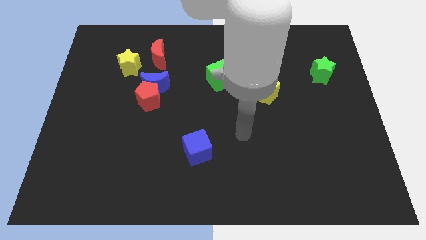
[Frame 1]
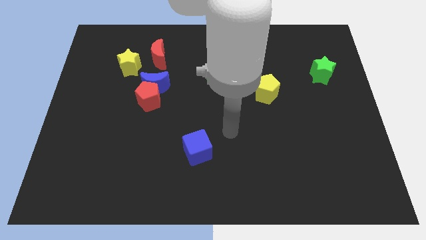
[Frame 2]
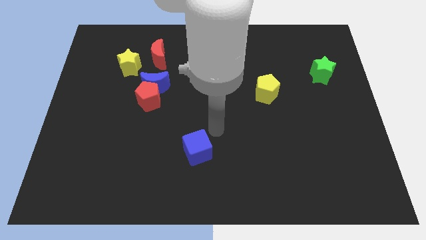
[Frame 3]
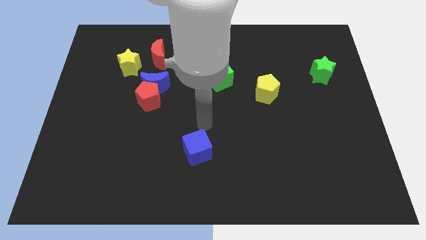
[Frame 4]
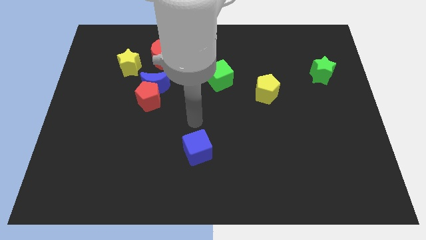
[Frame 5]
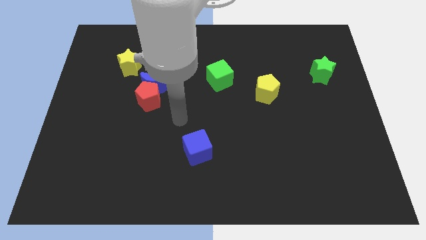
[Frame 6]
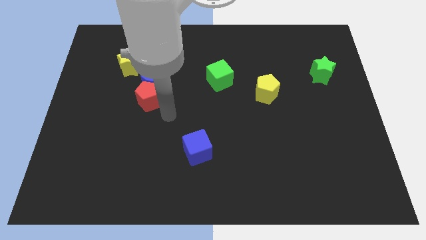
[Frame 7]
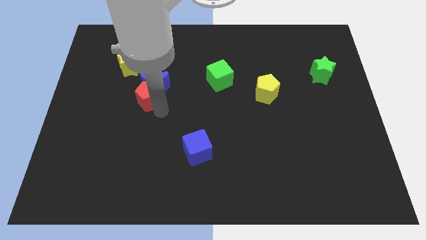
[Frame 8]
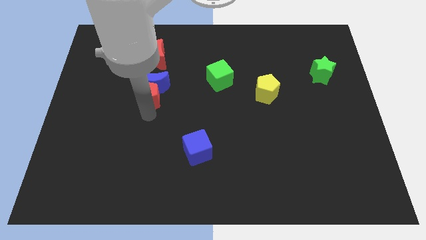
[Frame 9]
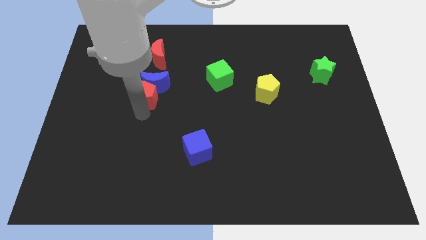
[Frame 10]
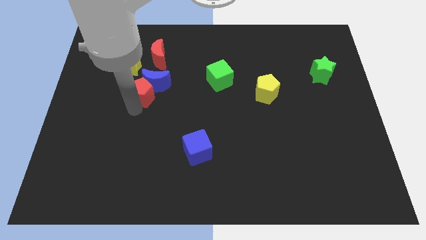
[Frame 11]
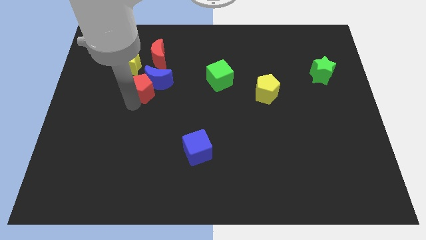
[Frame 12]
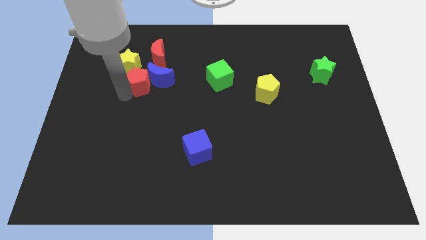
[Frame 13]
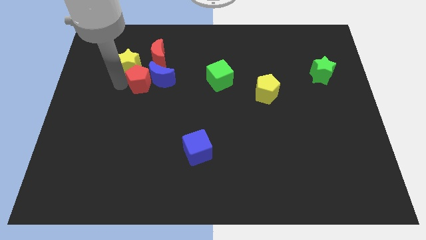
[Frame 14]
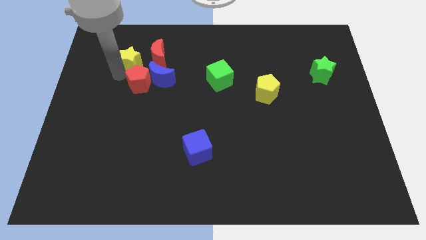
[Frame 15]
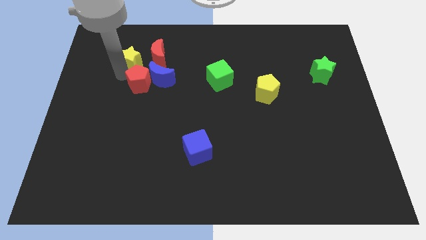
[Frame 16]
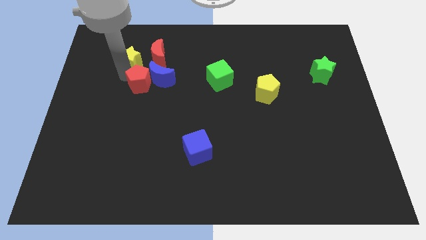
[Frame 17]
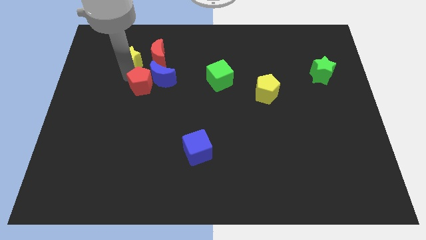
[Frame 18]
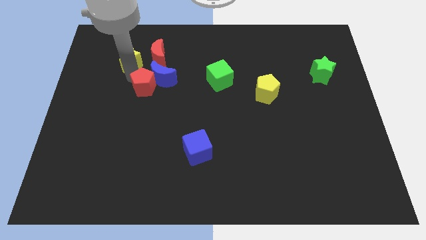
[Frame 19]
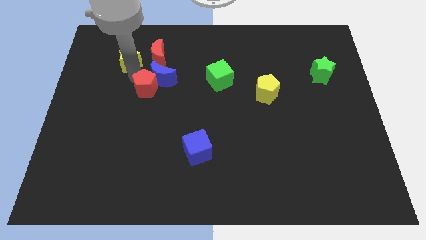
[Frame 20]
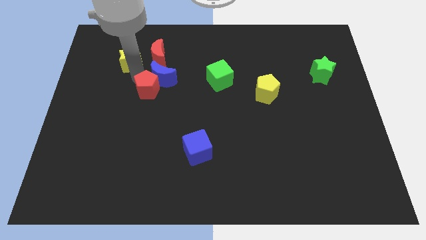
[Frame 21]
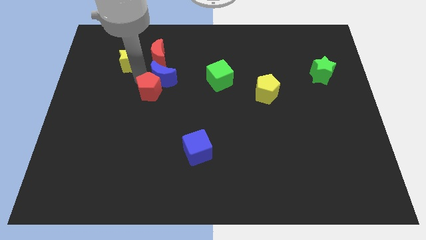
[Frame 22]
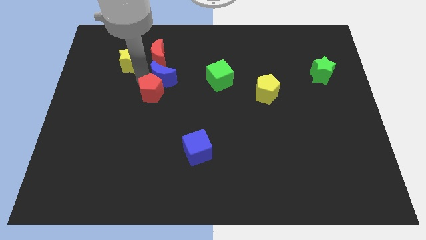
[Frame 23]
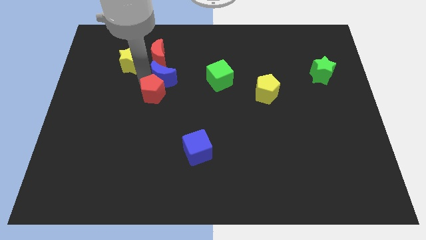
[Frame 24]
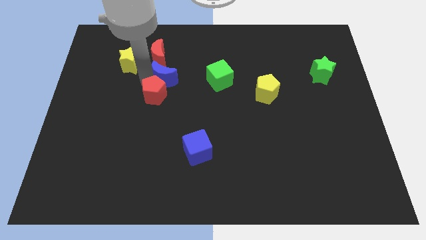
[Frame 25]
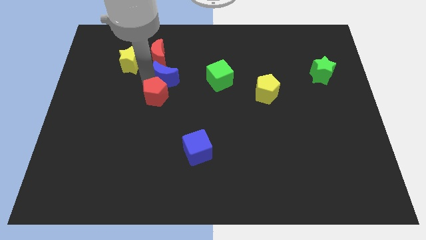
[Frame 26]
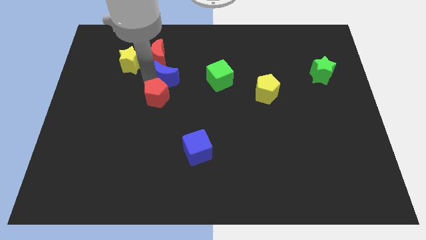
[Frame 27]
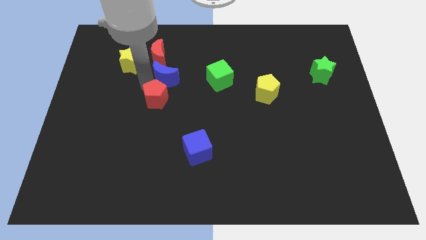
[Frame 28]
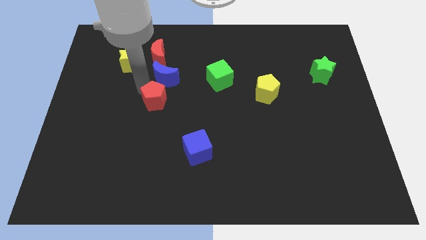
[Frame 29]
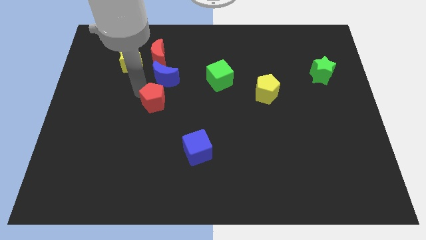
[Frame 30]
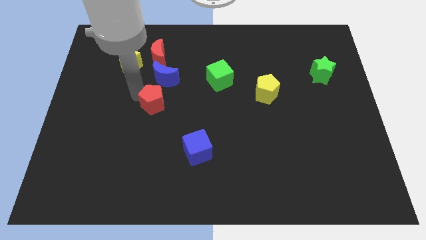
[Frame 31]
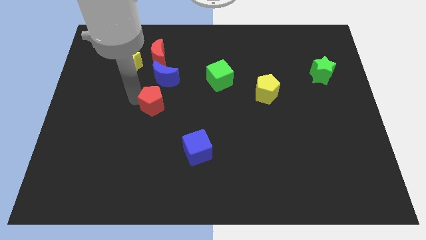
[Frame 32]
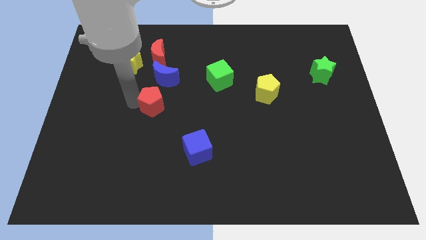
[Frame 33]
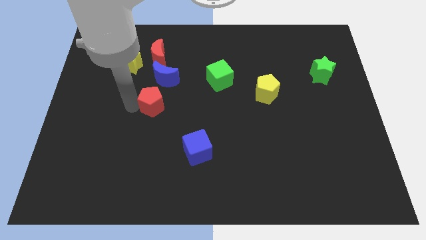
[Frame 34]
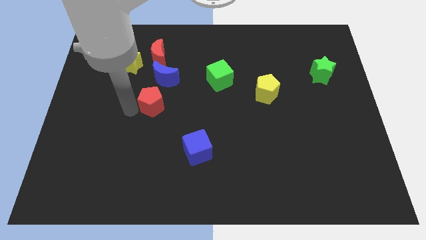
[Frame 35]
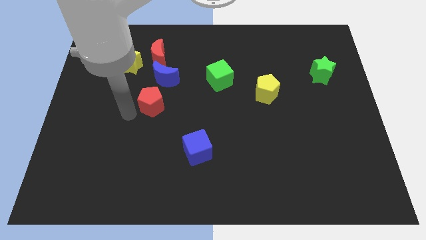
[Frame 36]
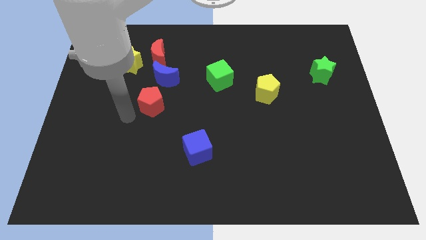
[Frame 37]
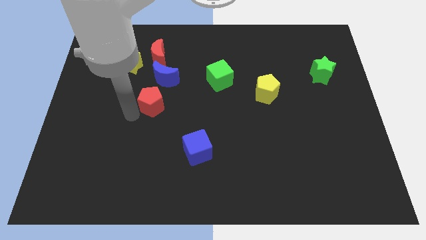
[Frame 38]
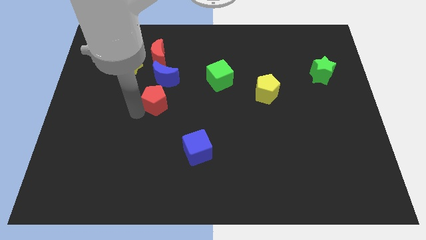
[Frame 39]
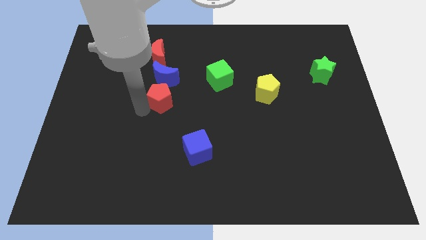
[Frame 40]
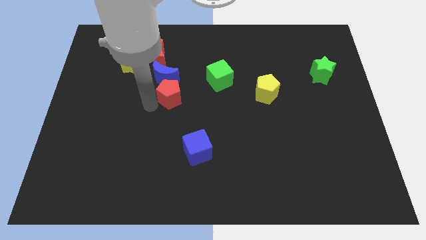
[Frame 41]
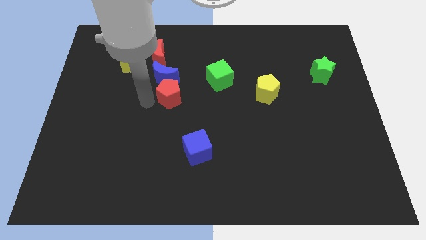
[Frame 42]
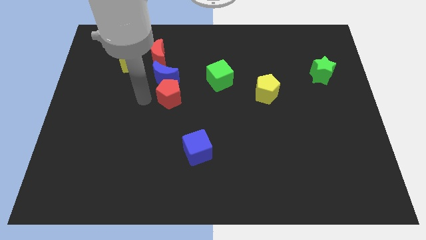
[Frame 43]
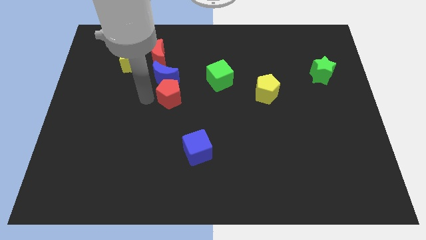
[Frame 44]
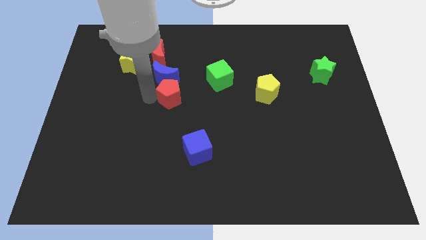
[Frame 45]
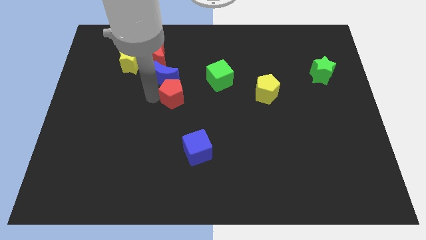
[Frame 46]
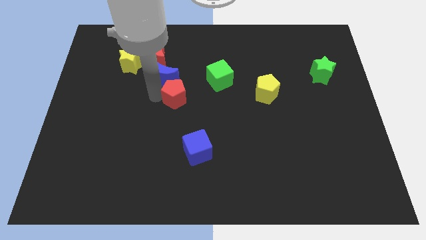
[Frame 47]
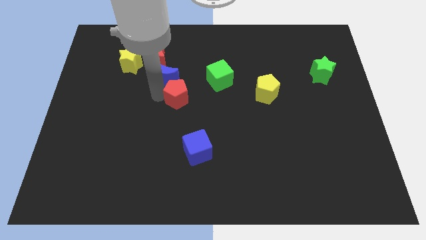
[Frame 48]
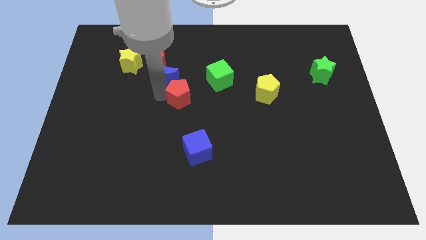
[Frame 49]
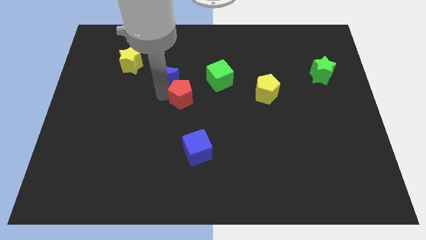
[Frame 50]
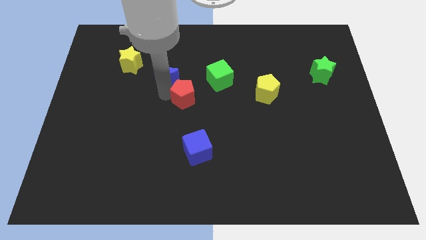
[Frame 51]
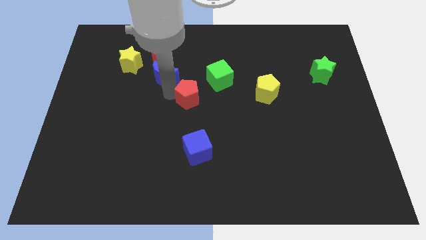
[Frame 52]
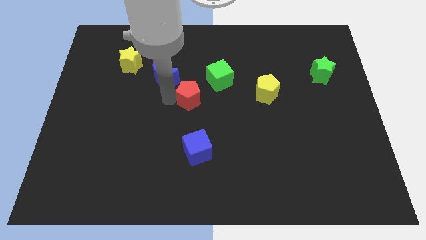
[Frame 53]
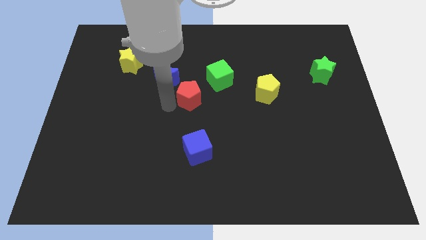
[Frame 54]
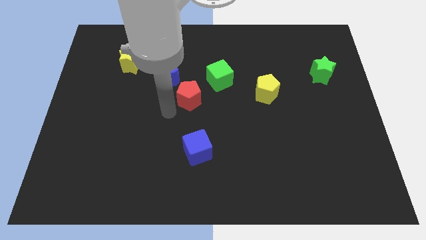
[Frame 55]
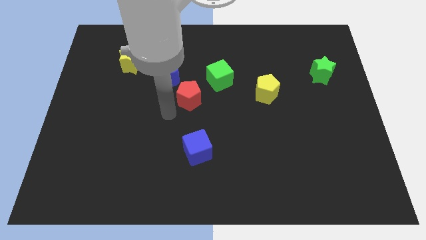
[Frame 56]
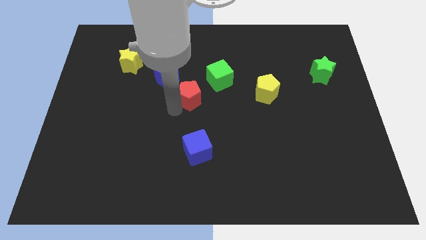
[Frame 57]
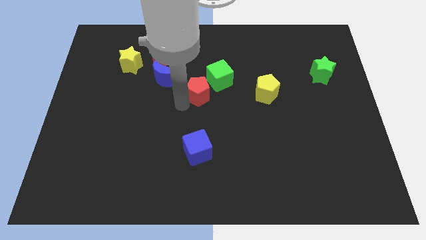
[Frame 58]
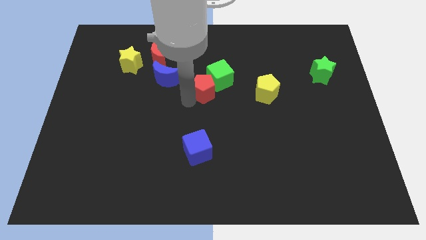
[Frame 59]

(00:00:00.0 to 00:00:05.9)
put the red pentagon next to the green cube

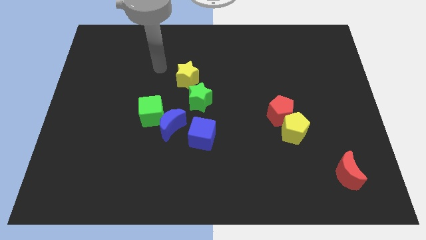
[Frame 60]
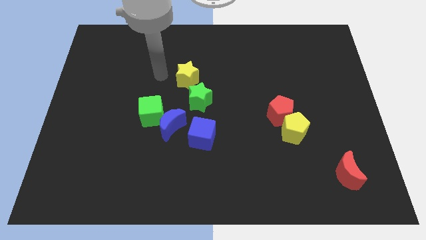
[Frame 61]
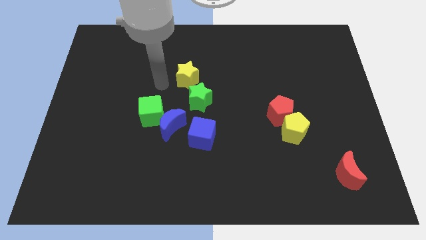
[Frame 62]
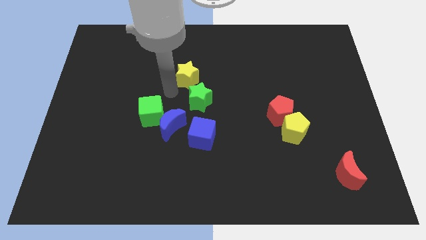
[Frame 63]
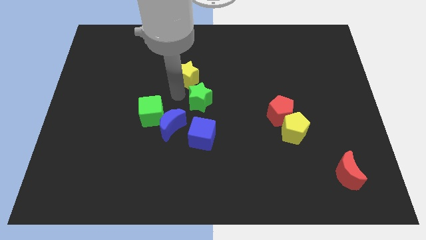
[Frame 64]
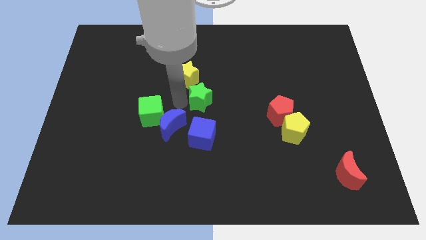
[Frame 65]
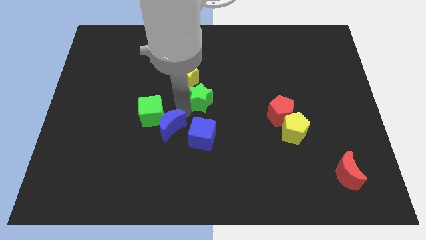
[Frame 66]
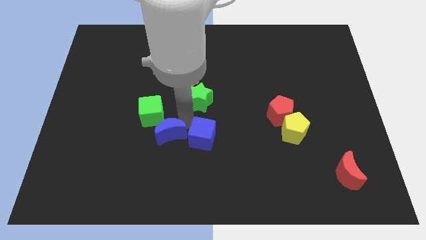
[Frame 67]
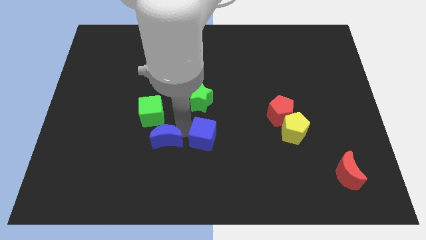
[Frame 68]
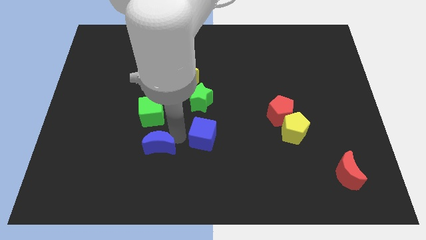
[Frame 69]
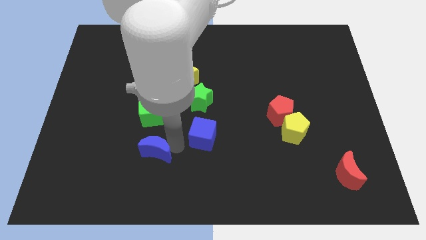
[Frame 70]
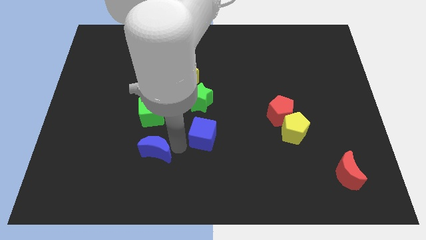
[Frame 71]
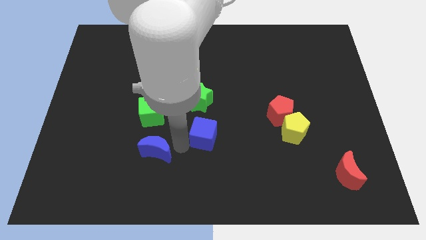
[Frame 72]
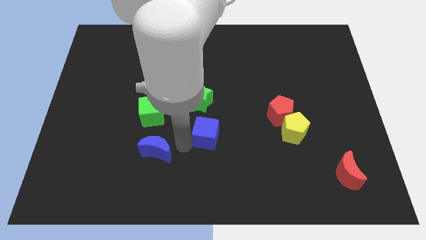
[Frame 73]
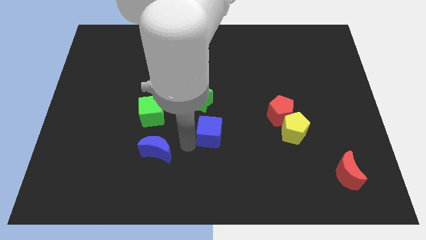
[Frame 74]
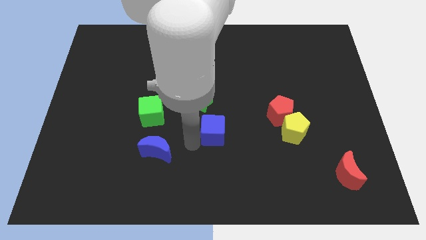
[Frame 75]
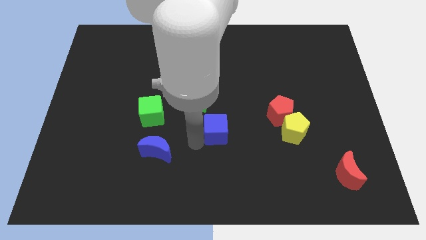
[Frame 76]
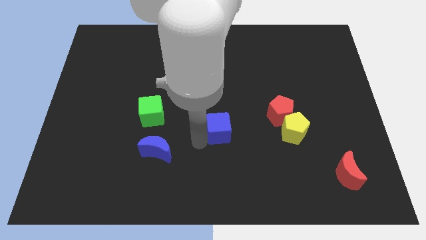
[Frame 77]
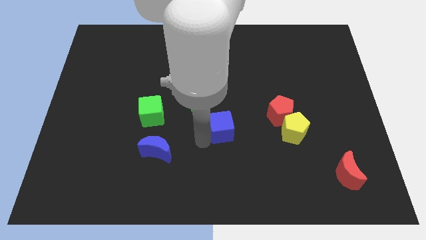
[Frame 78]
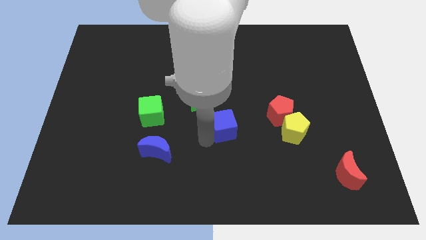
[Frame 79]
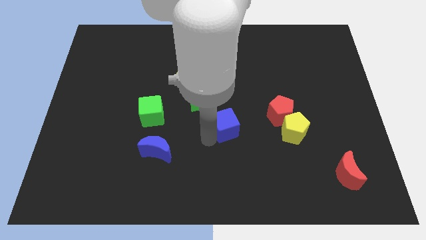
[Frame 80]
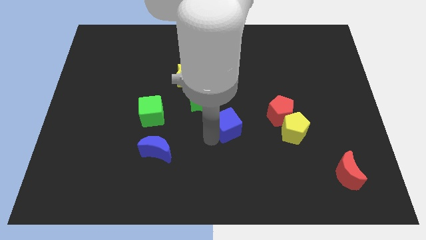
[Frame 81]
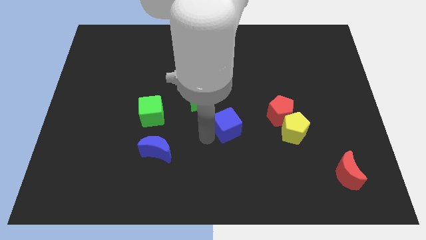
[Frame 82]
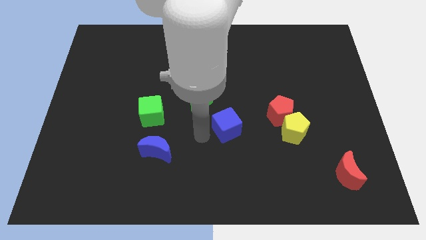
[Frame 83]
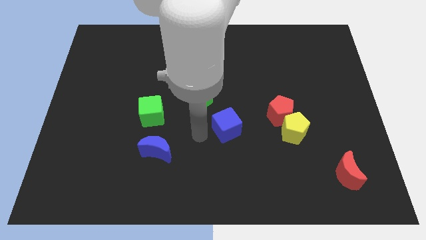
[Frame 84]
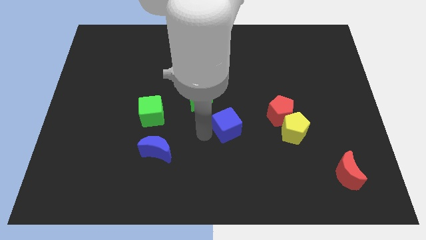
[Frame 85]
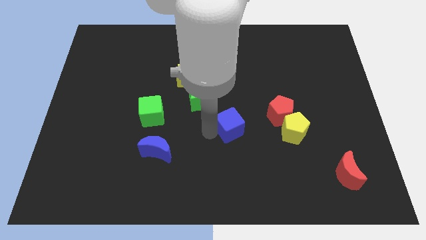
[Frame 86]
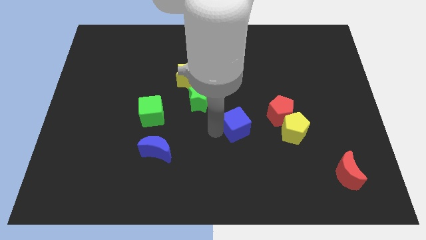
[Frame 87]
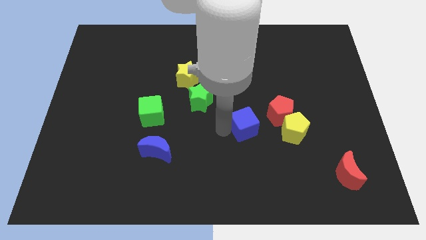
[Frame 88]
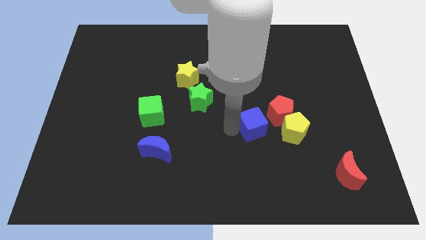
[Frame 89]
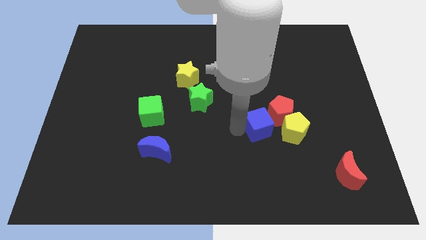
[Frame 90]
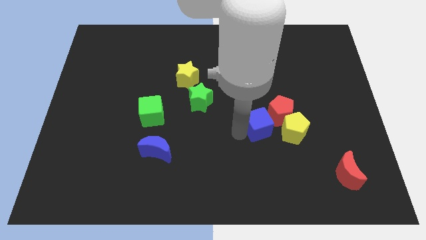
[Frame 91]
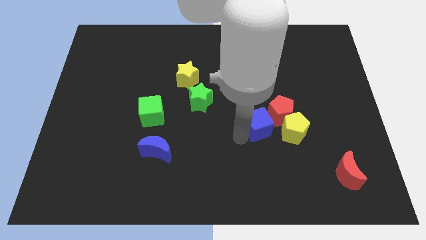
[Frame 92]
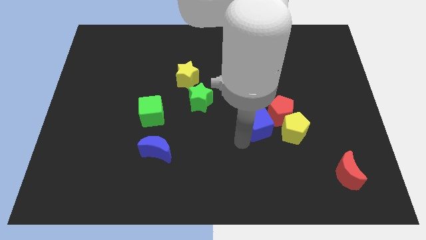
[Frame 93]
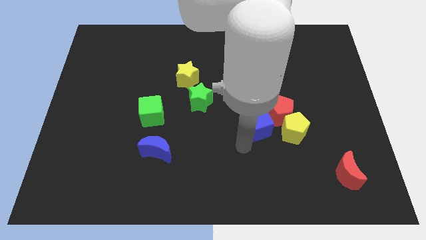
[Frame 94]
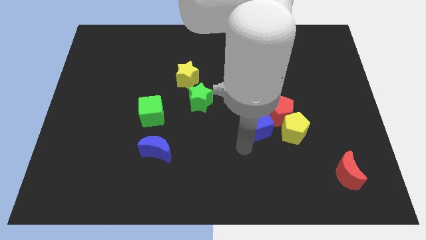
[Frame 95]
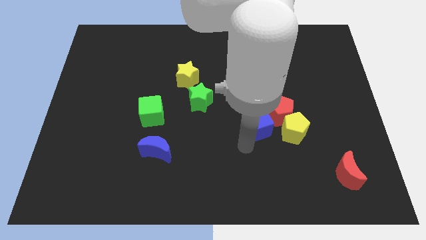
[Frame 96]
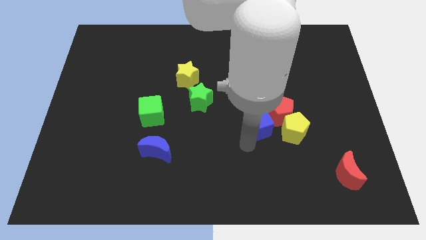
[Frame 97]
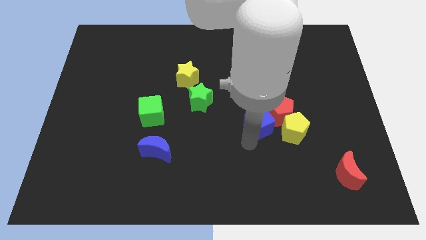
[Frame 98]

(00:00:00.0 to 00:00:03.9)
move the blue cube close to the red pentagon
